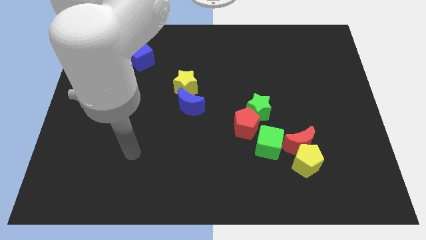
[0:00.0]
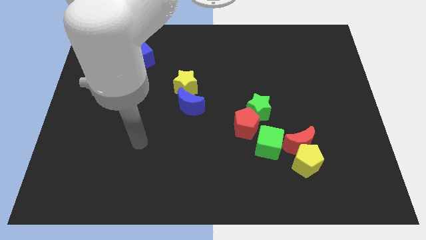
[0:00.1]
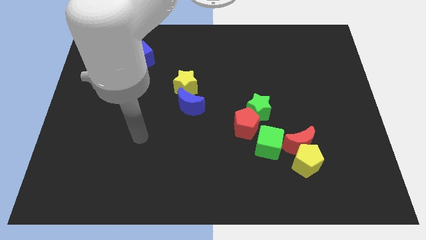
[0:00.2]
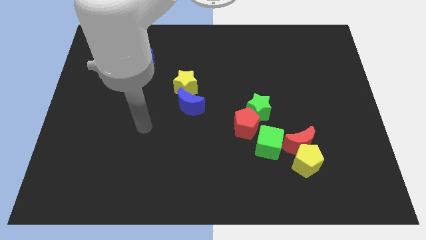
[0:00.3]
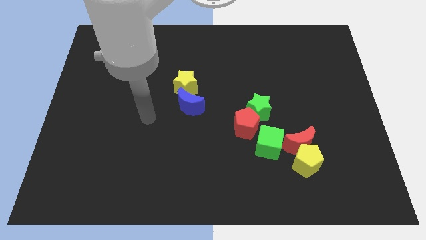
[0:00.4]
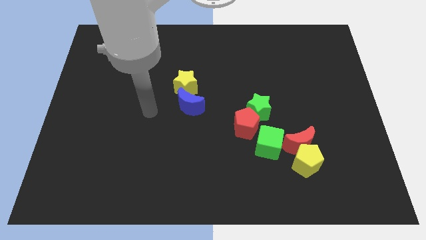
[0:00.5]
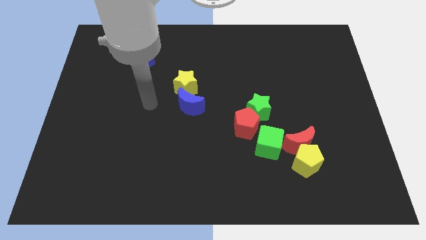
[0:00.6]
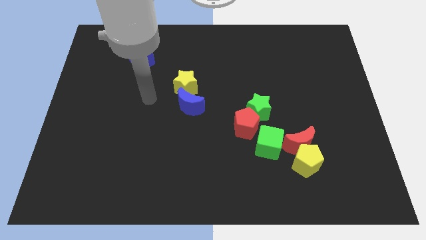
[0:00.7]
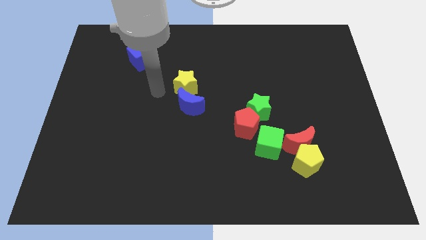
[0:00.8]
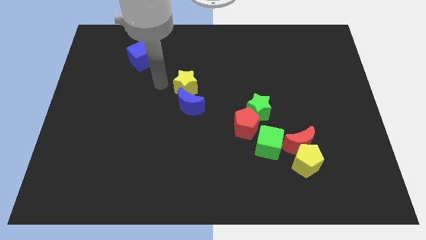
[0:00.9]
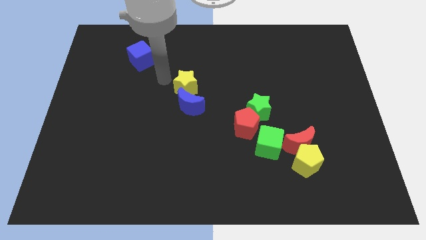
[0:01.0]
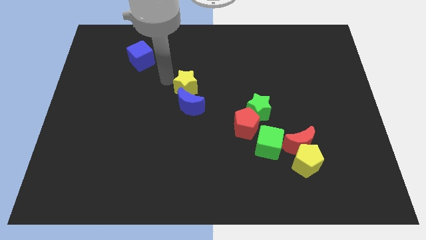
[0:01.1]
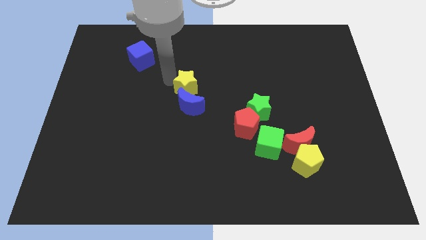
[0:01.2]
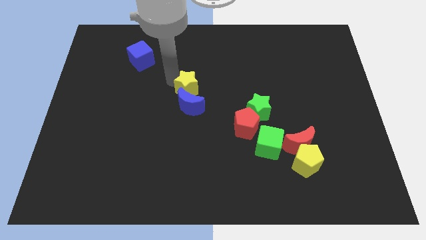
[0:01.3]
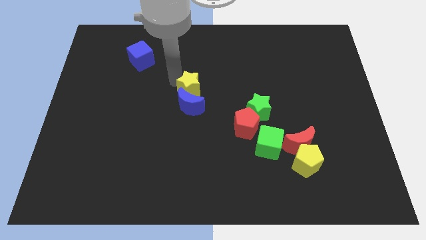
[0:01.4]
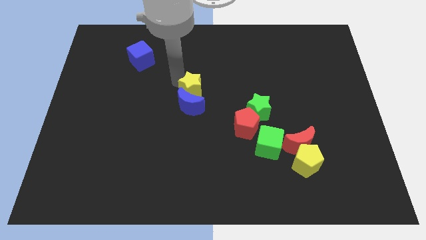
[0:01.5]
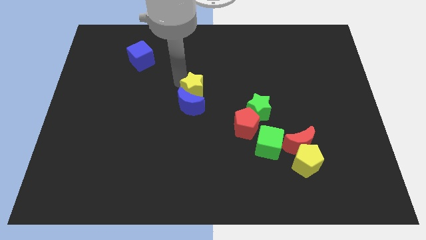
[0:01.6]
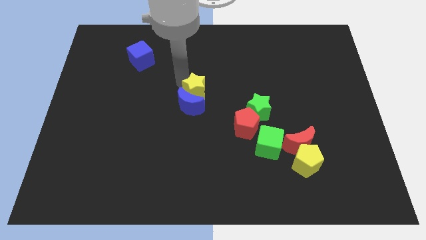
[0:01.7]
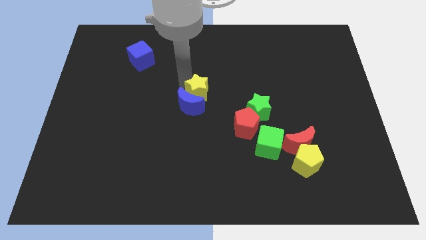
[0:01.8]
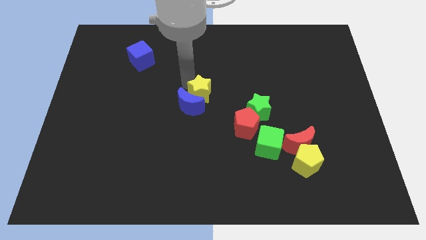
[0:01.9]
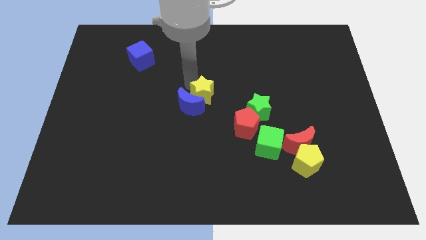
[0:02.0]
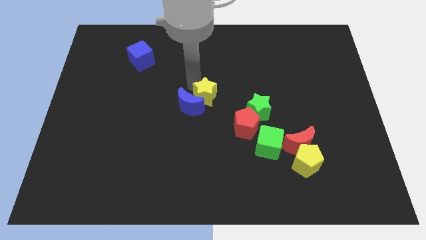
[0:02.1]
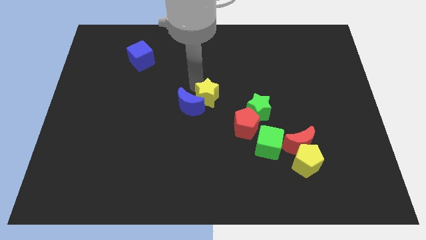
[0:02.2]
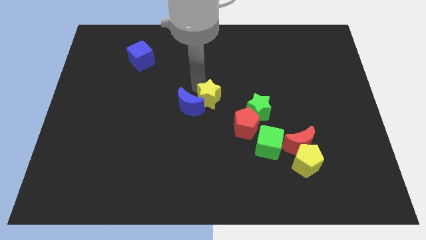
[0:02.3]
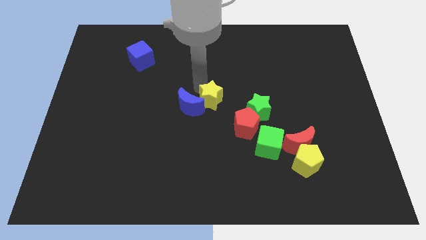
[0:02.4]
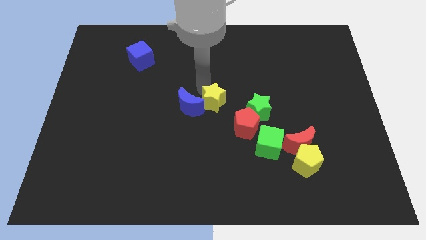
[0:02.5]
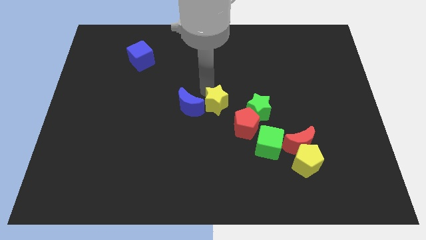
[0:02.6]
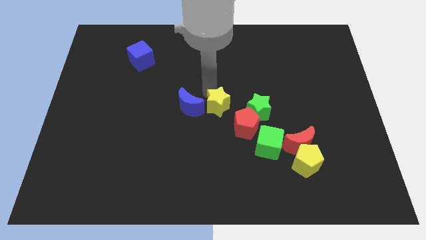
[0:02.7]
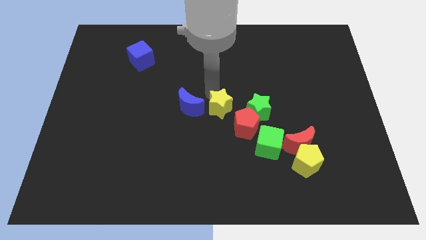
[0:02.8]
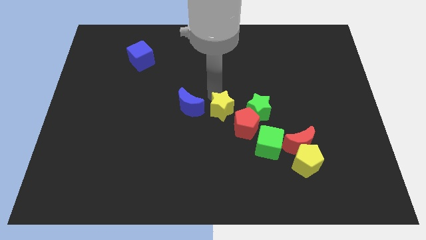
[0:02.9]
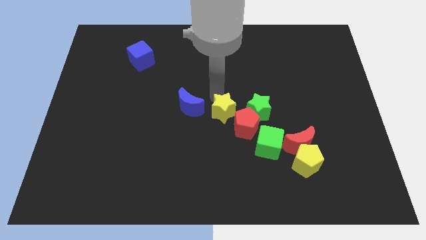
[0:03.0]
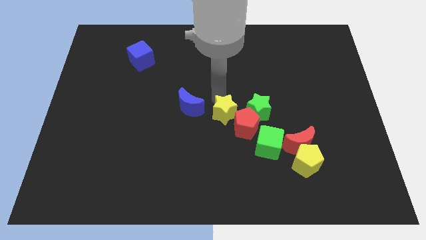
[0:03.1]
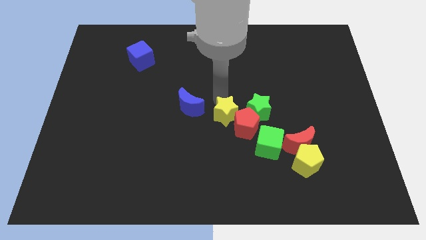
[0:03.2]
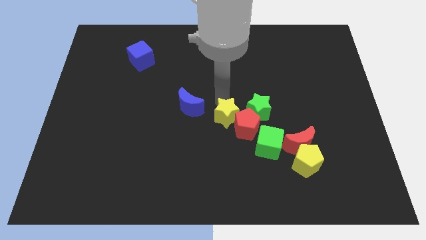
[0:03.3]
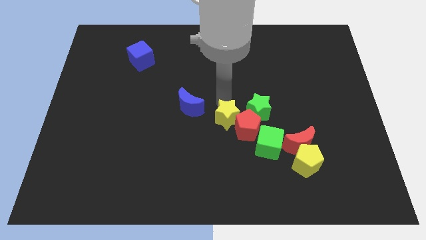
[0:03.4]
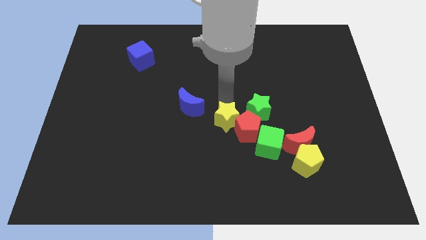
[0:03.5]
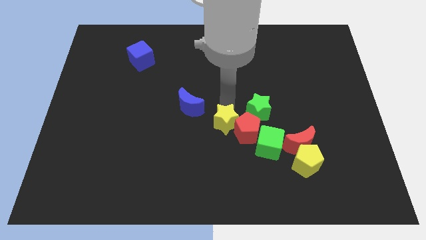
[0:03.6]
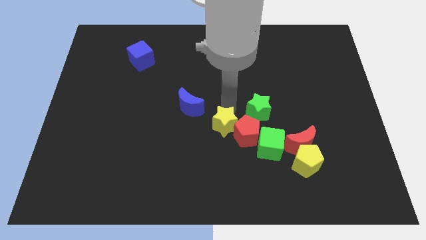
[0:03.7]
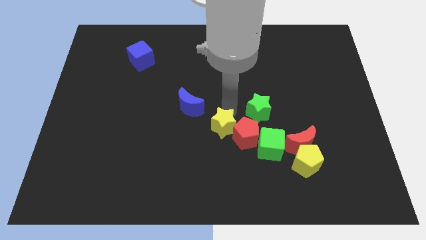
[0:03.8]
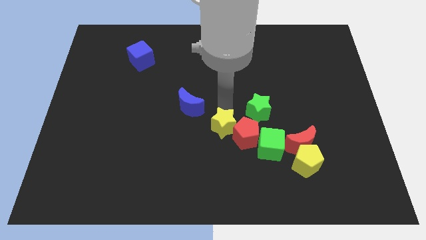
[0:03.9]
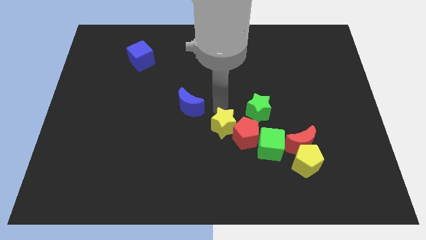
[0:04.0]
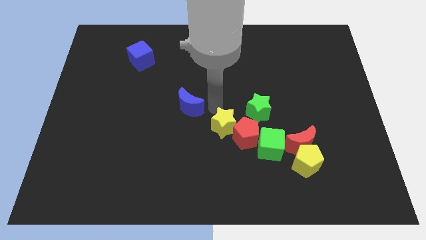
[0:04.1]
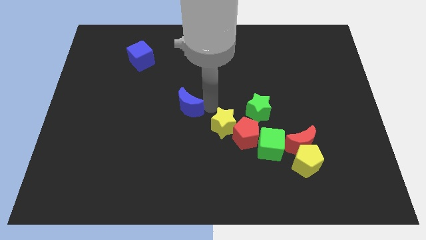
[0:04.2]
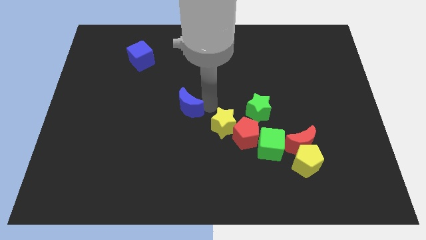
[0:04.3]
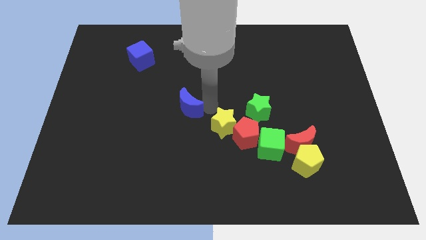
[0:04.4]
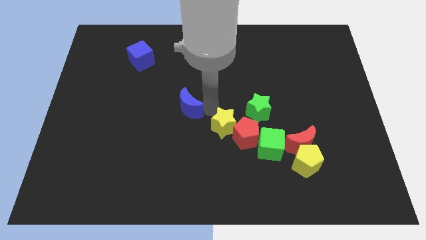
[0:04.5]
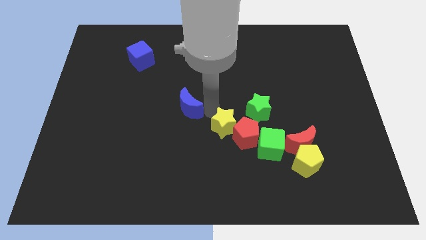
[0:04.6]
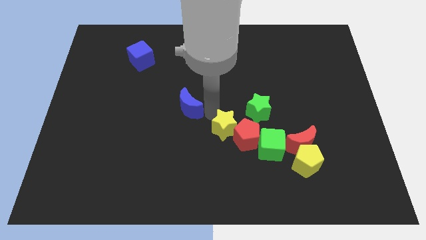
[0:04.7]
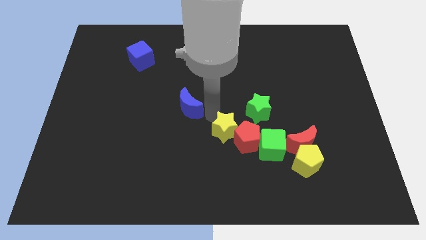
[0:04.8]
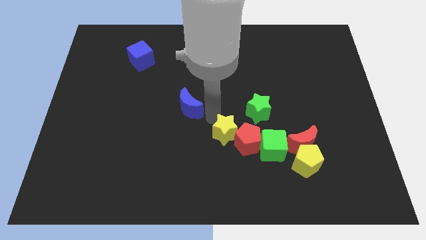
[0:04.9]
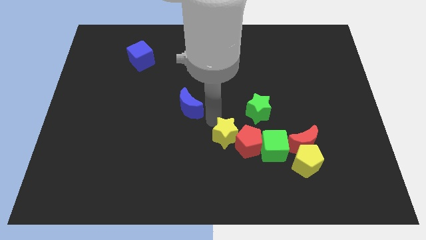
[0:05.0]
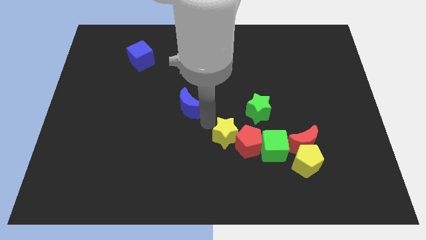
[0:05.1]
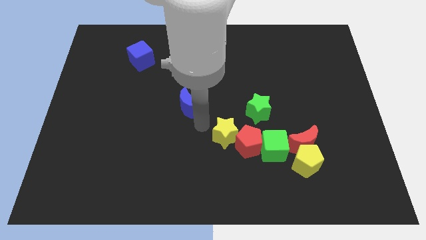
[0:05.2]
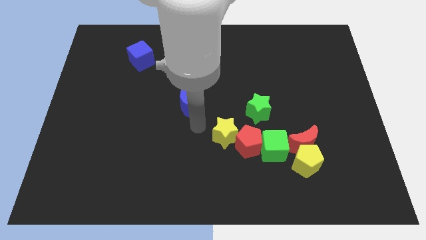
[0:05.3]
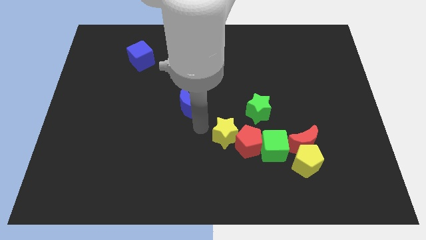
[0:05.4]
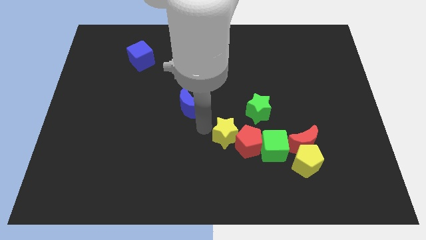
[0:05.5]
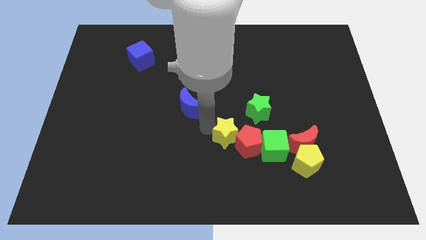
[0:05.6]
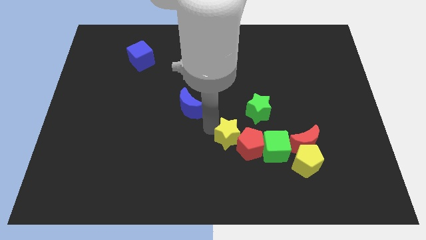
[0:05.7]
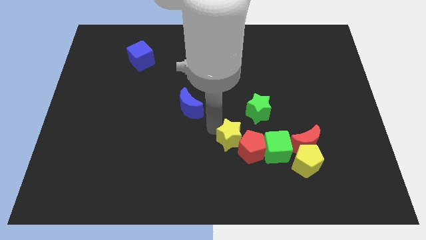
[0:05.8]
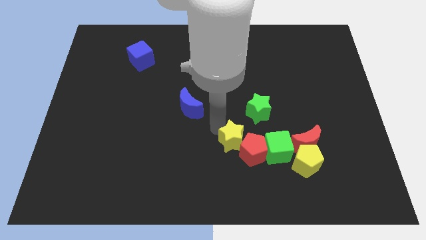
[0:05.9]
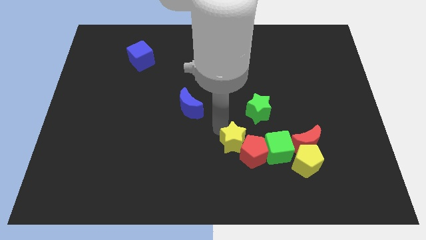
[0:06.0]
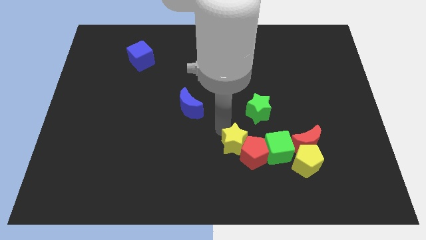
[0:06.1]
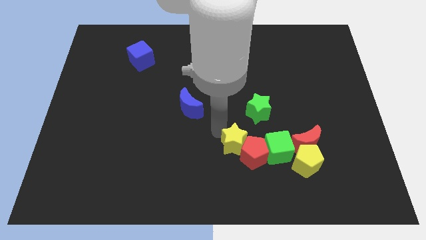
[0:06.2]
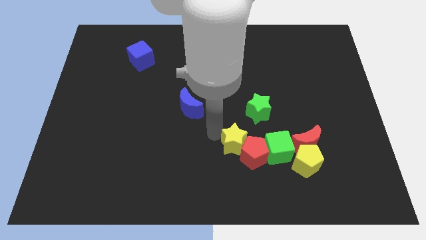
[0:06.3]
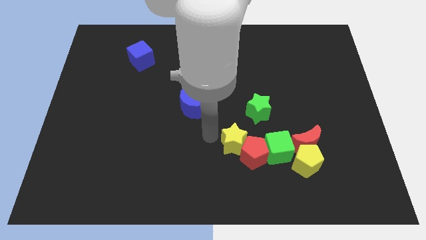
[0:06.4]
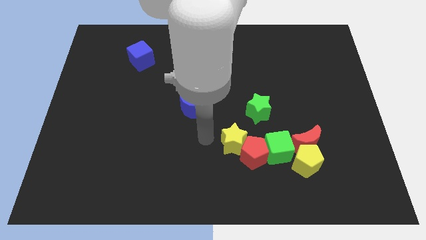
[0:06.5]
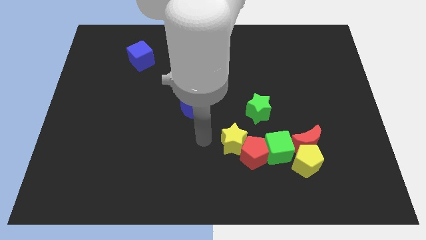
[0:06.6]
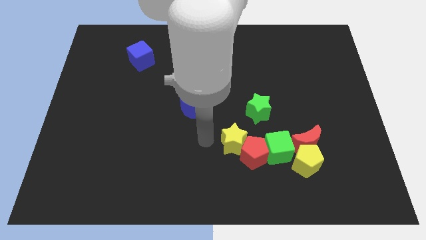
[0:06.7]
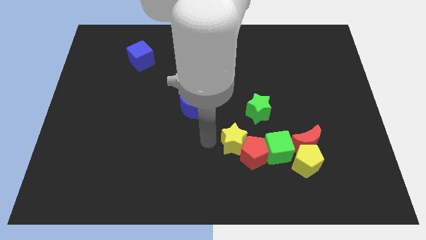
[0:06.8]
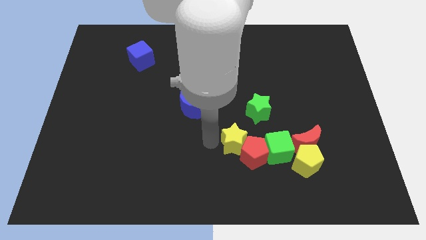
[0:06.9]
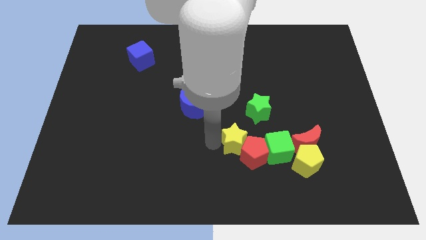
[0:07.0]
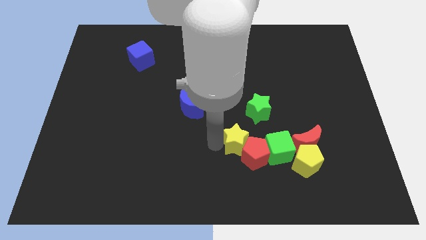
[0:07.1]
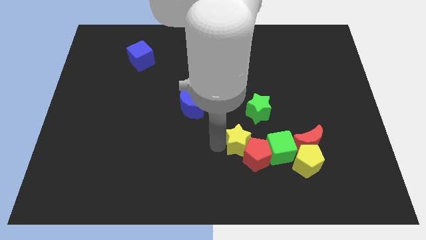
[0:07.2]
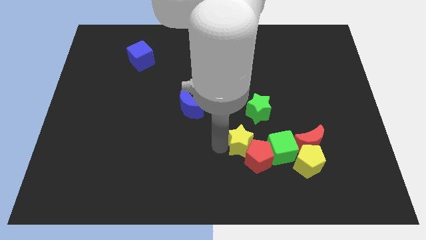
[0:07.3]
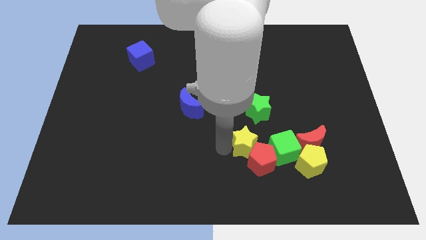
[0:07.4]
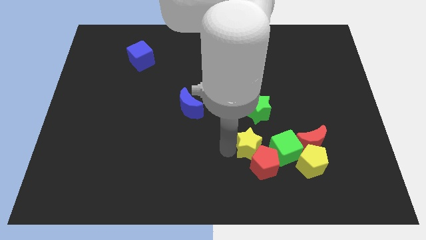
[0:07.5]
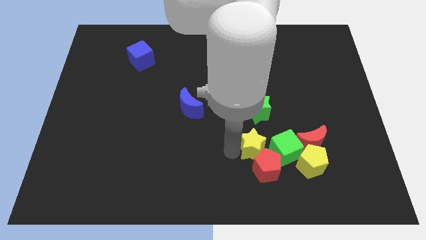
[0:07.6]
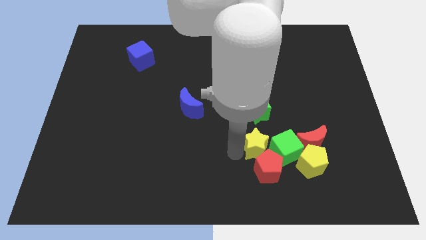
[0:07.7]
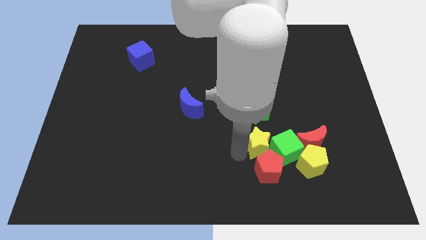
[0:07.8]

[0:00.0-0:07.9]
push the yellow star to the green cube
